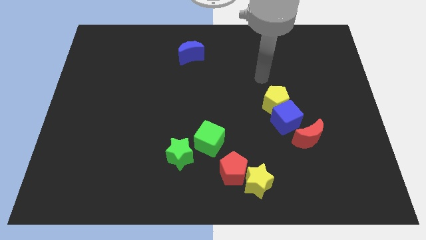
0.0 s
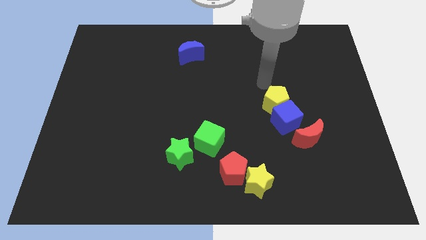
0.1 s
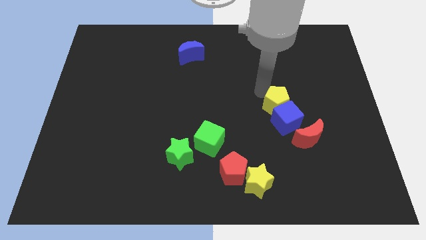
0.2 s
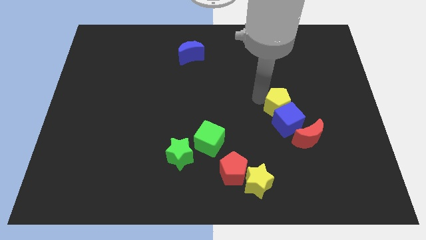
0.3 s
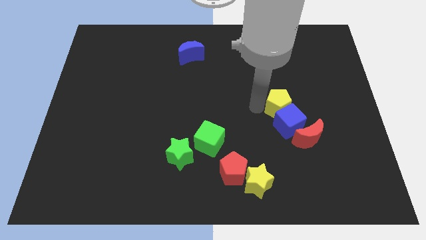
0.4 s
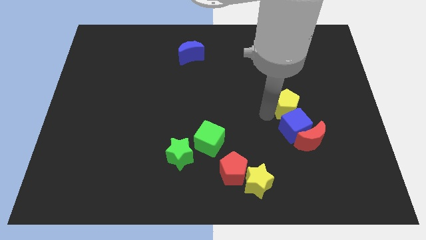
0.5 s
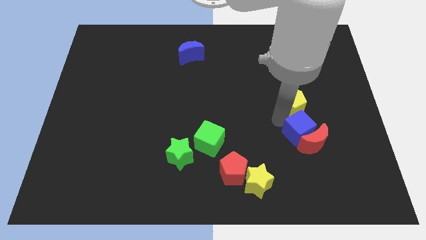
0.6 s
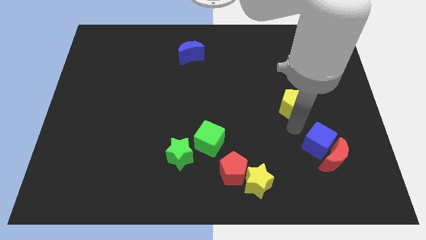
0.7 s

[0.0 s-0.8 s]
move the yellow pentagon away from the blue cube

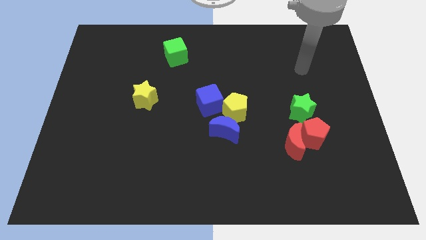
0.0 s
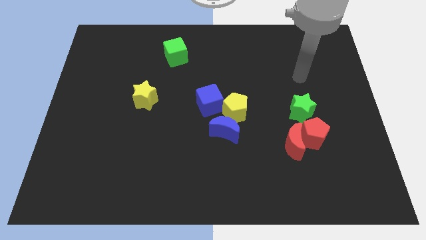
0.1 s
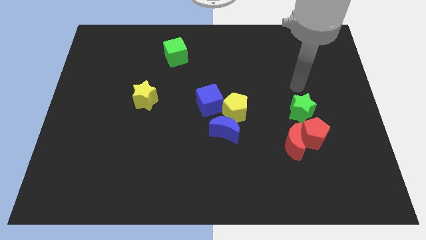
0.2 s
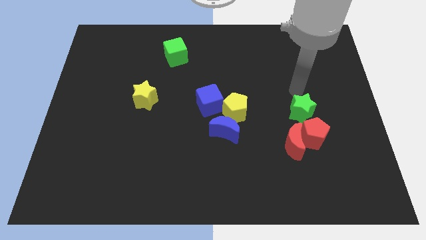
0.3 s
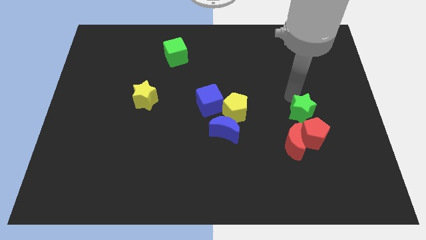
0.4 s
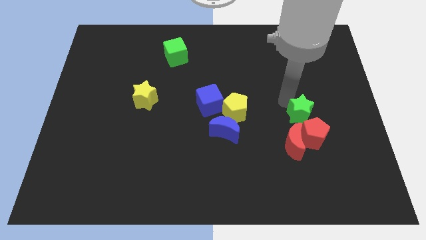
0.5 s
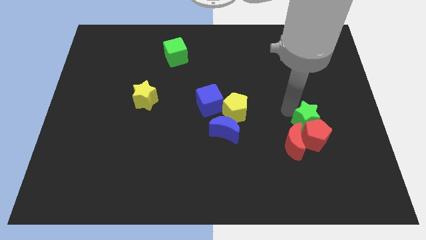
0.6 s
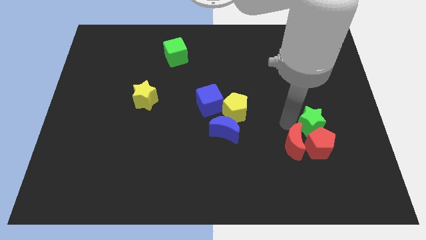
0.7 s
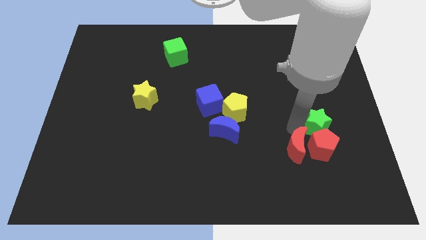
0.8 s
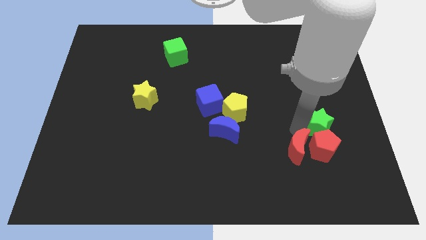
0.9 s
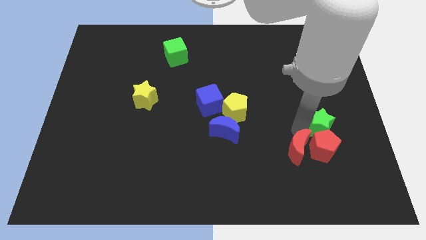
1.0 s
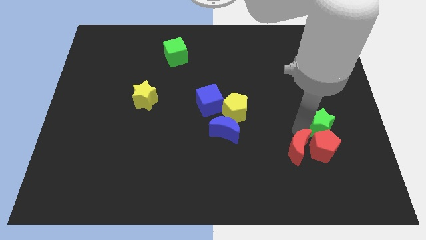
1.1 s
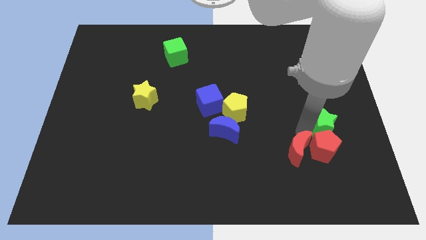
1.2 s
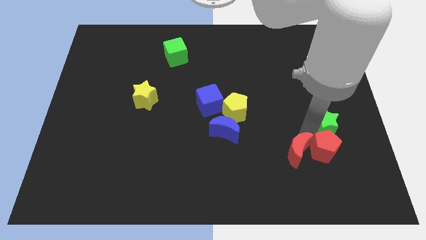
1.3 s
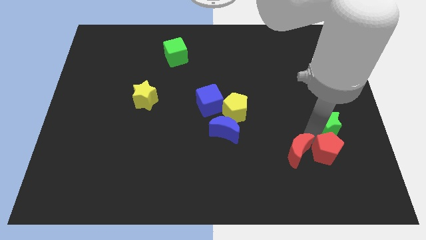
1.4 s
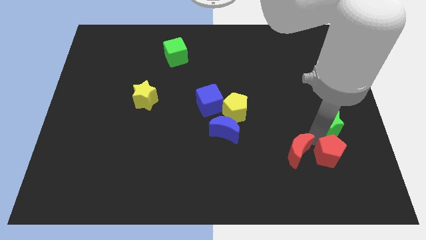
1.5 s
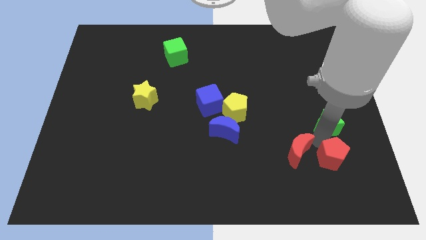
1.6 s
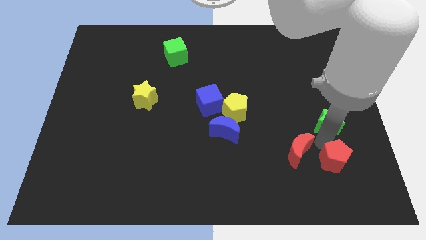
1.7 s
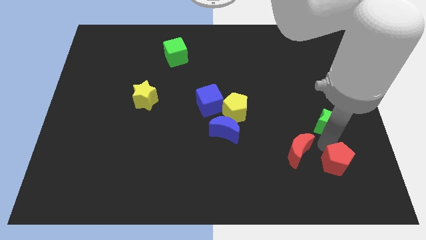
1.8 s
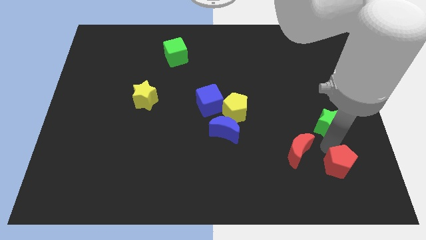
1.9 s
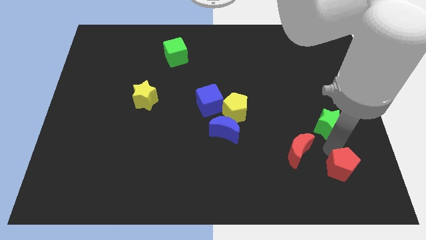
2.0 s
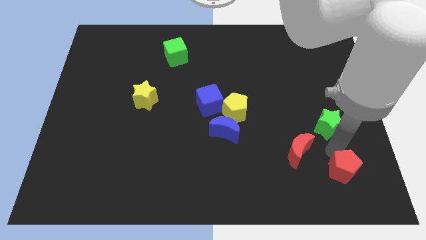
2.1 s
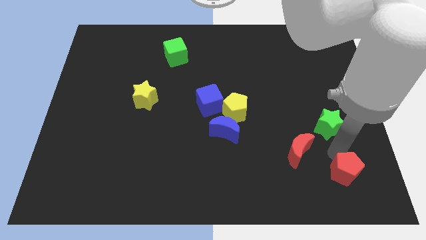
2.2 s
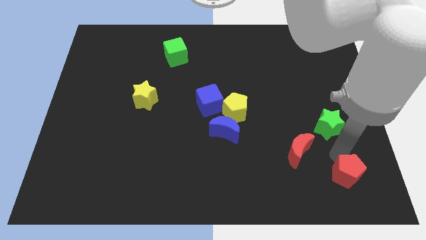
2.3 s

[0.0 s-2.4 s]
pull the red pentagon apart from the red moon and green star

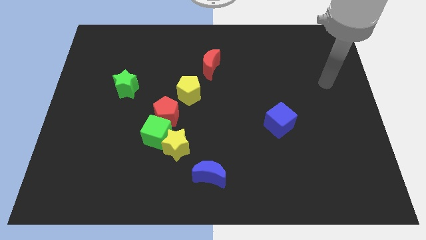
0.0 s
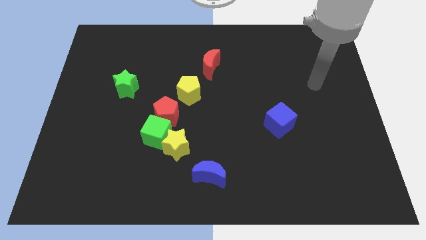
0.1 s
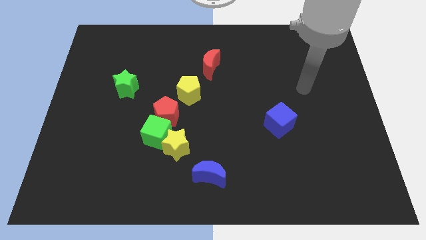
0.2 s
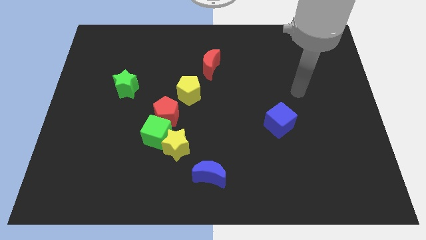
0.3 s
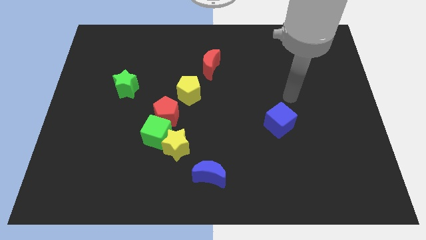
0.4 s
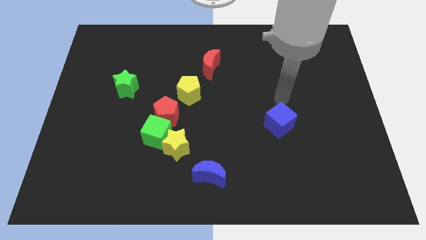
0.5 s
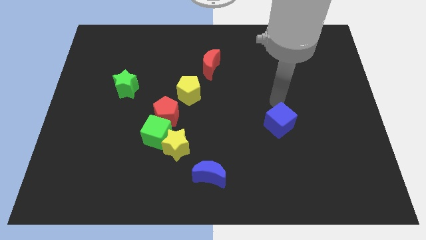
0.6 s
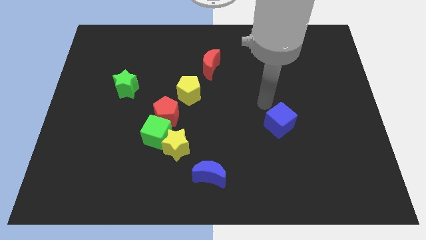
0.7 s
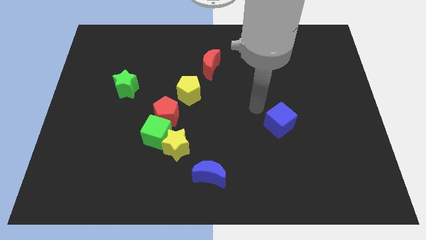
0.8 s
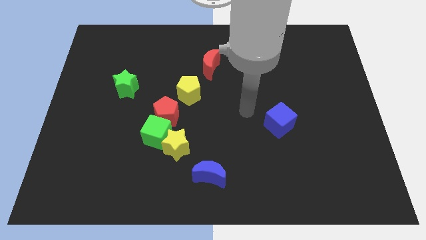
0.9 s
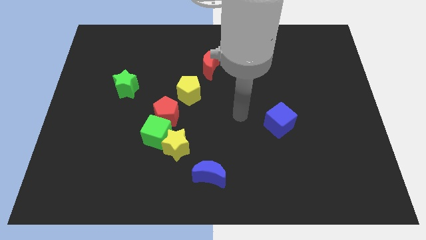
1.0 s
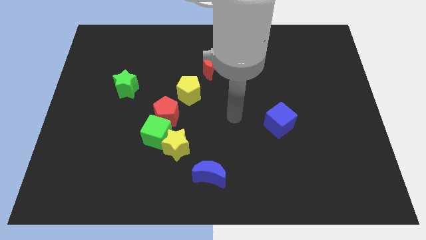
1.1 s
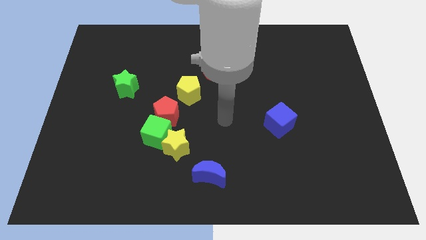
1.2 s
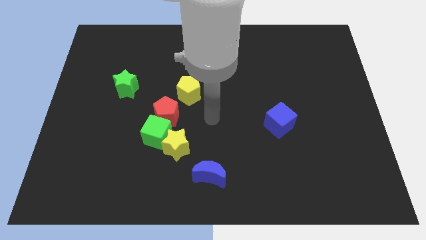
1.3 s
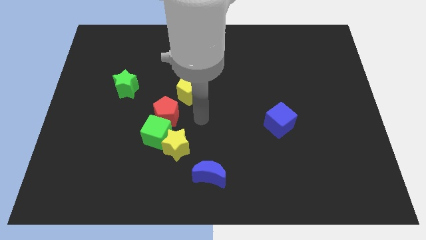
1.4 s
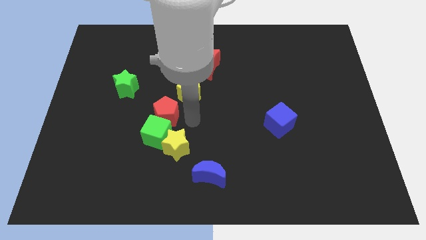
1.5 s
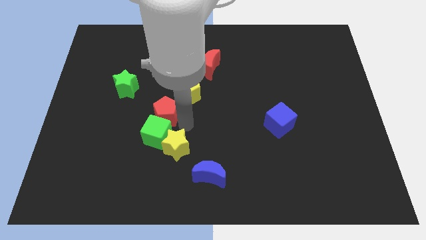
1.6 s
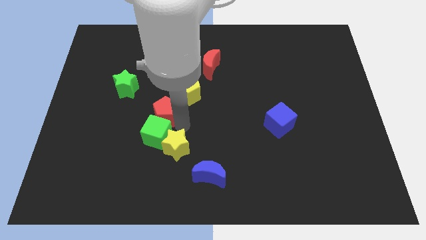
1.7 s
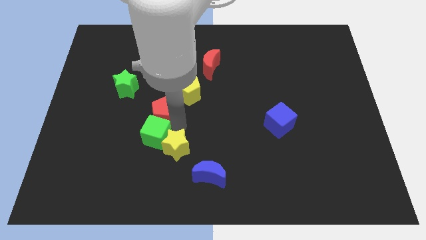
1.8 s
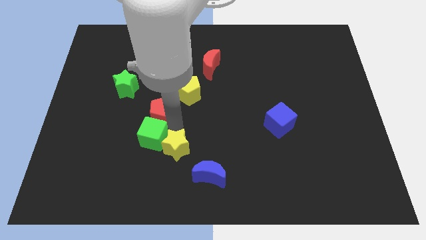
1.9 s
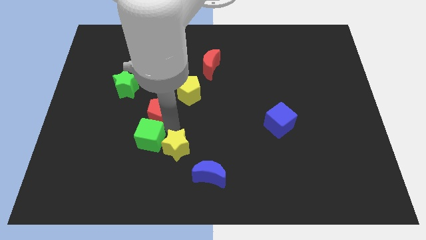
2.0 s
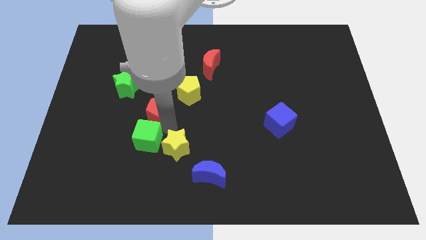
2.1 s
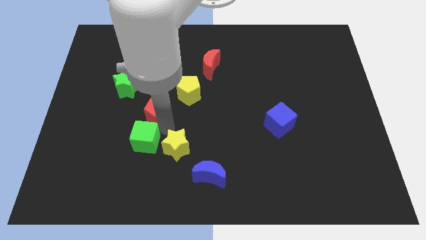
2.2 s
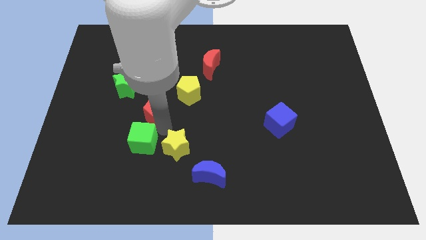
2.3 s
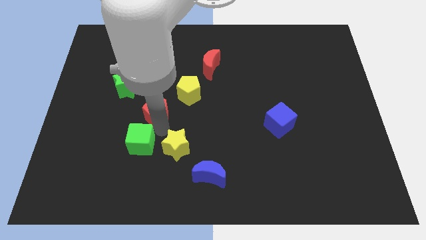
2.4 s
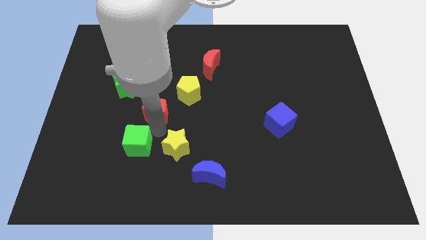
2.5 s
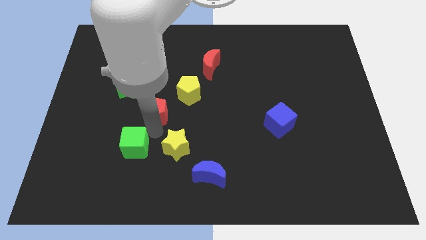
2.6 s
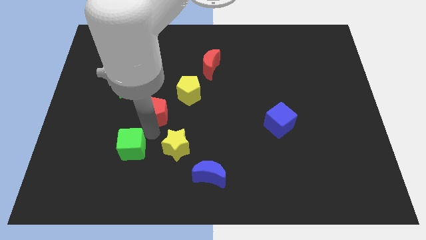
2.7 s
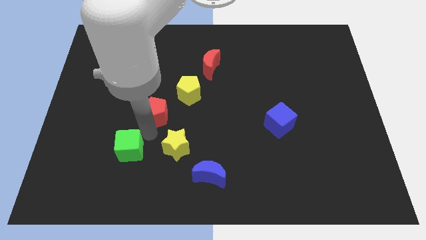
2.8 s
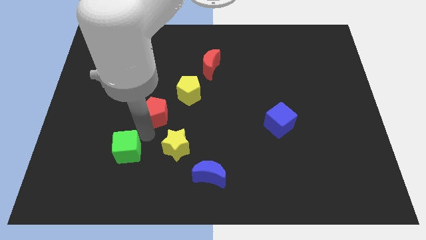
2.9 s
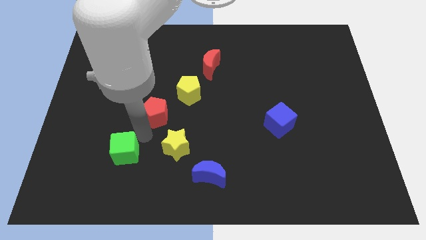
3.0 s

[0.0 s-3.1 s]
separate the green cube from the yellow star and red pentagon

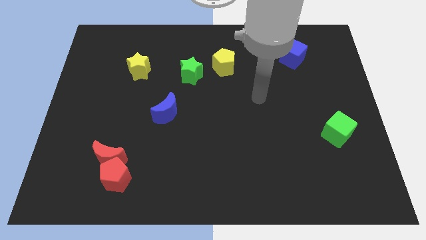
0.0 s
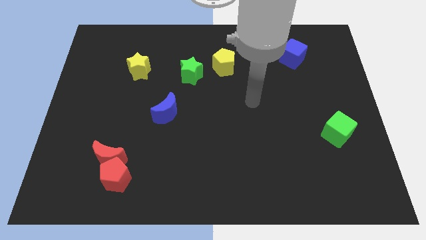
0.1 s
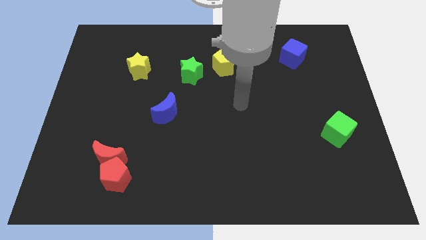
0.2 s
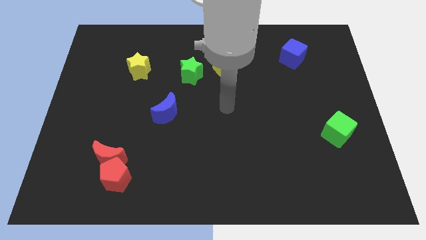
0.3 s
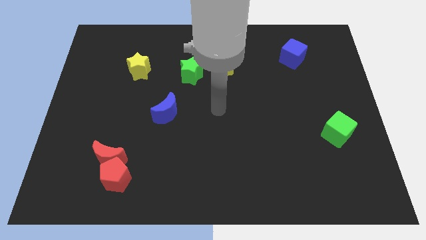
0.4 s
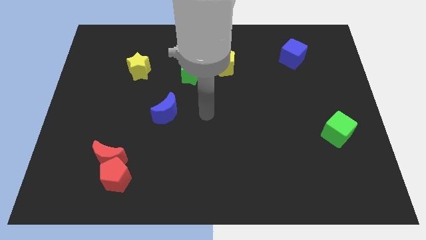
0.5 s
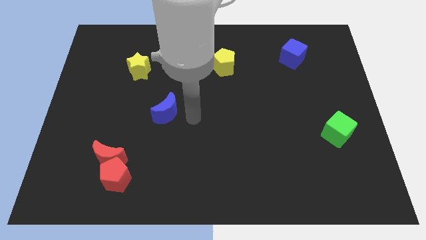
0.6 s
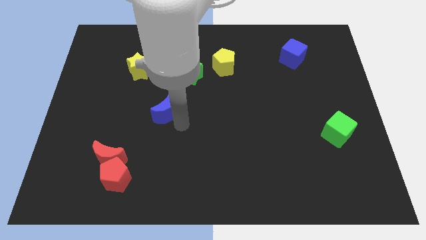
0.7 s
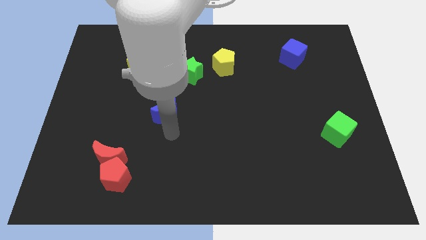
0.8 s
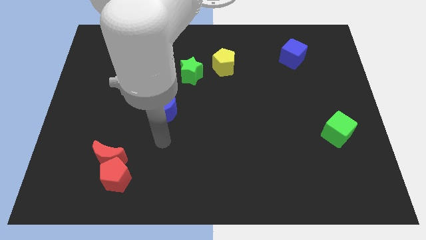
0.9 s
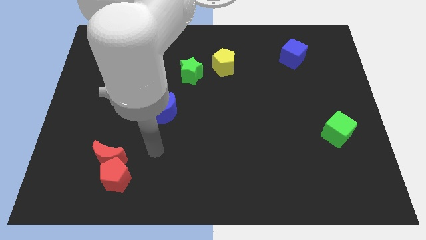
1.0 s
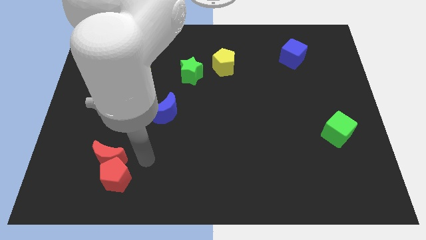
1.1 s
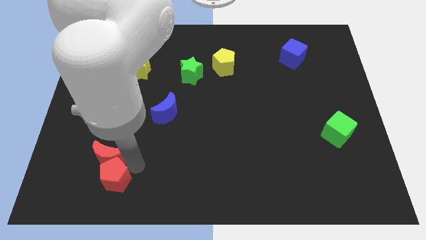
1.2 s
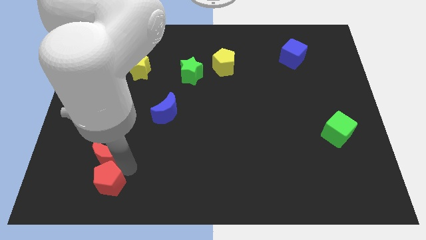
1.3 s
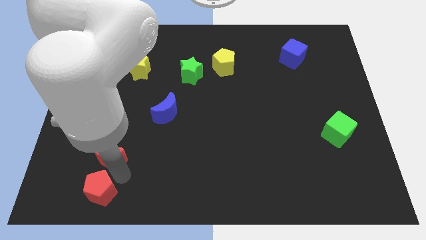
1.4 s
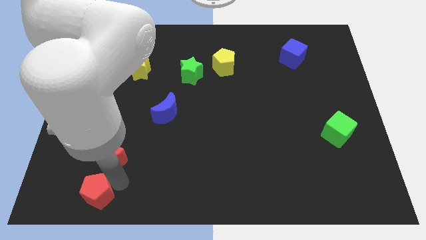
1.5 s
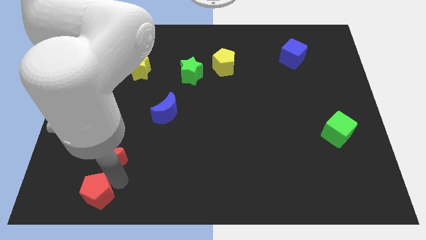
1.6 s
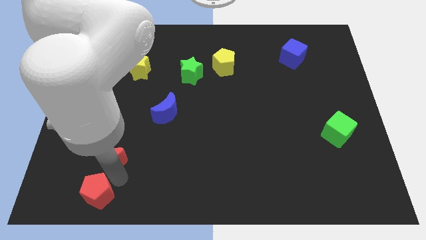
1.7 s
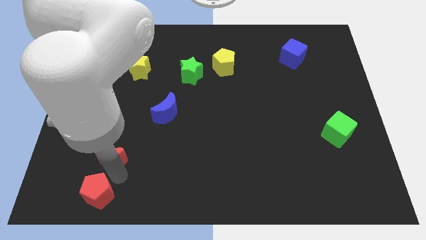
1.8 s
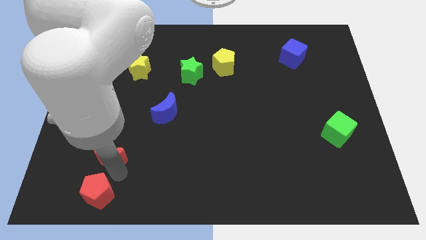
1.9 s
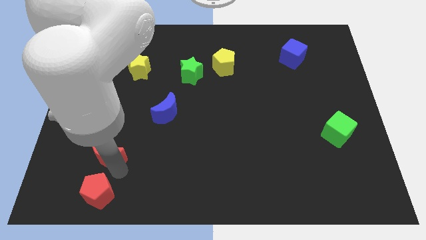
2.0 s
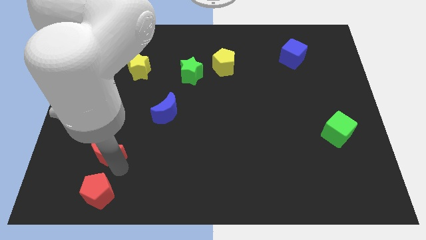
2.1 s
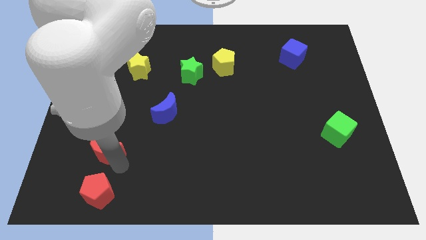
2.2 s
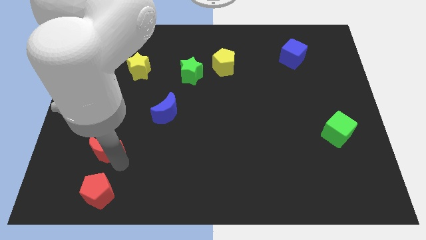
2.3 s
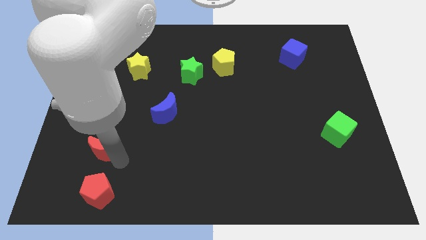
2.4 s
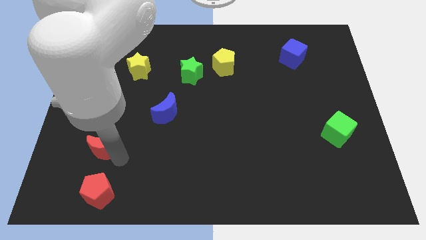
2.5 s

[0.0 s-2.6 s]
separate the red moon from the red pentagon

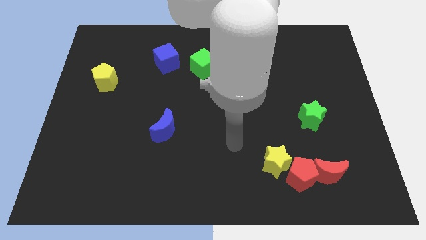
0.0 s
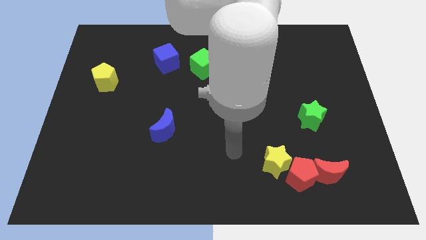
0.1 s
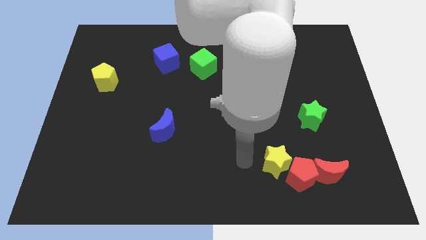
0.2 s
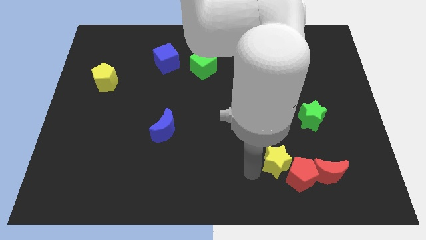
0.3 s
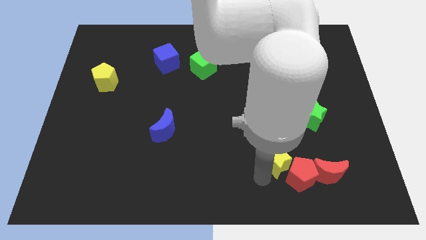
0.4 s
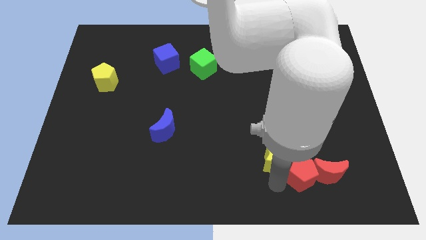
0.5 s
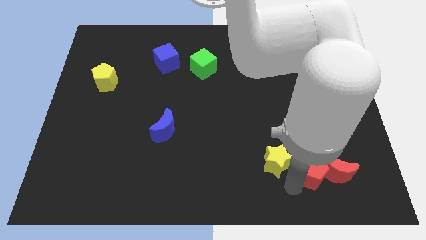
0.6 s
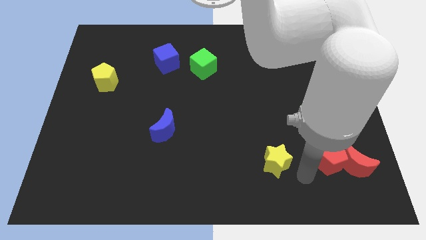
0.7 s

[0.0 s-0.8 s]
pull the yellow star apart from the red pentagon
